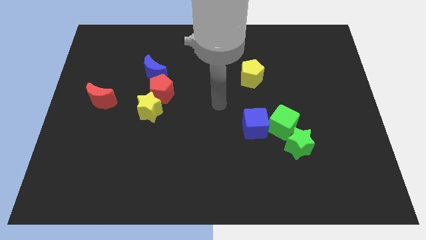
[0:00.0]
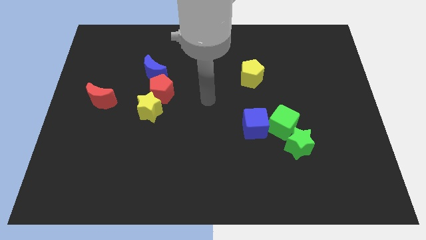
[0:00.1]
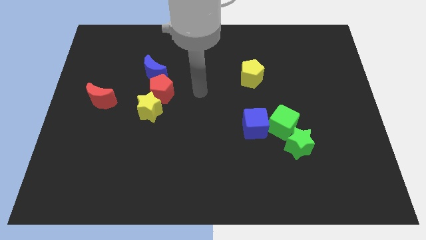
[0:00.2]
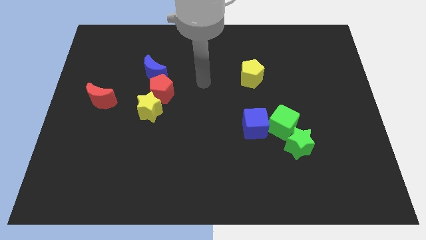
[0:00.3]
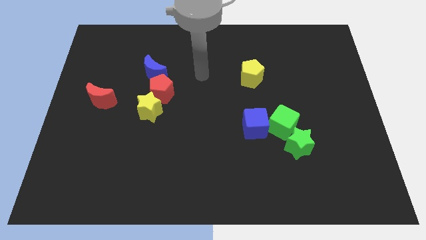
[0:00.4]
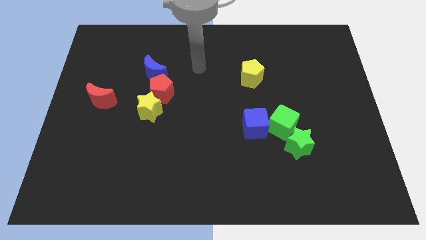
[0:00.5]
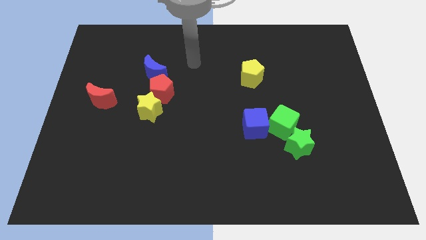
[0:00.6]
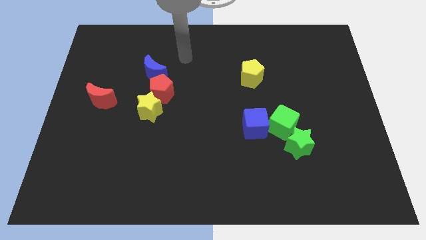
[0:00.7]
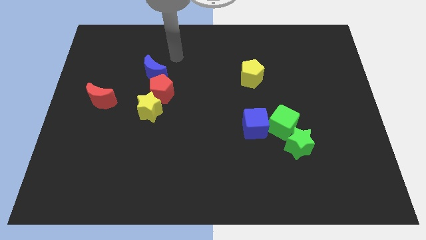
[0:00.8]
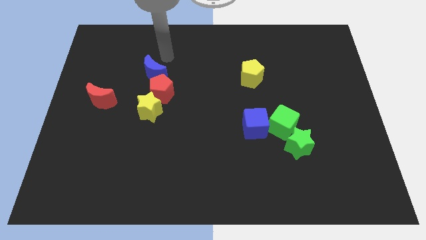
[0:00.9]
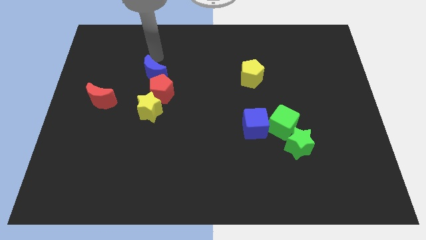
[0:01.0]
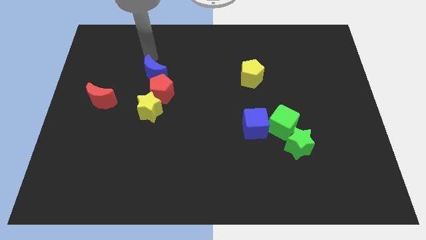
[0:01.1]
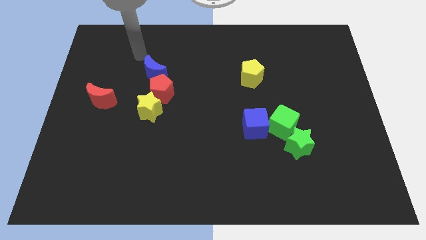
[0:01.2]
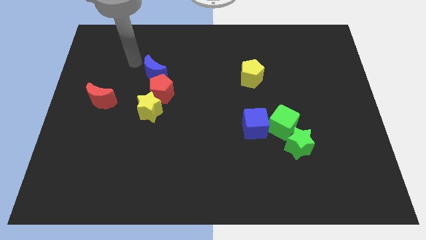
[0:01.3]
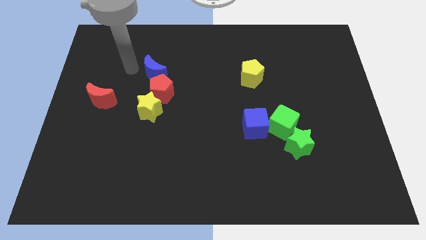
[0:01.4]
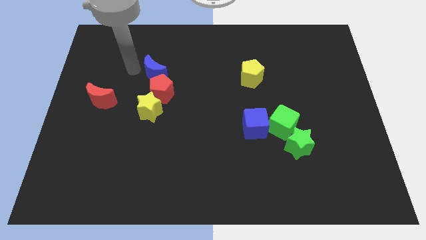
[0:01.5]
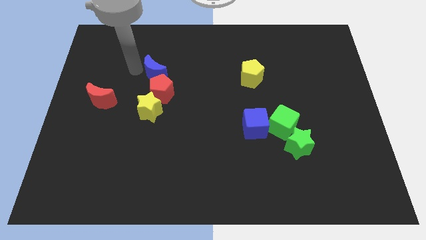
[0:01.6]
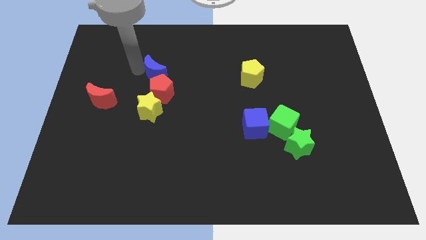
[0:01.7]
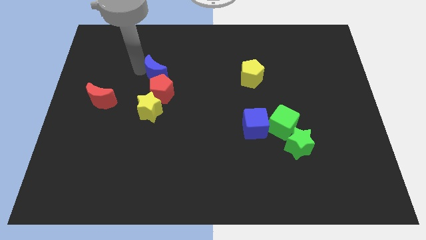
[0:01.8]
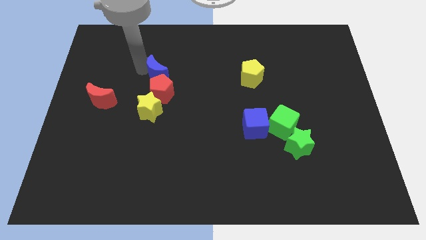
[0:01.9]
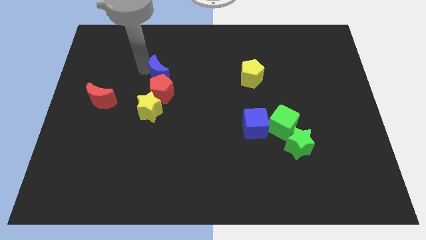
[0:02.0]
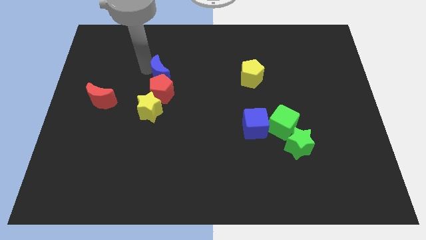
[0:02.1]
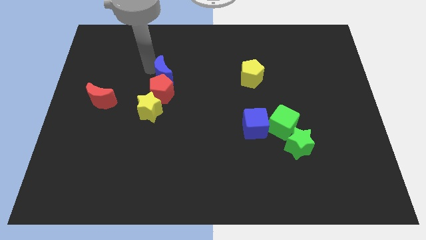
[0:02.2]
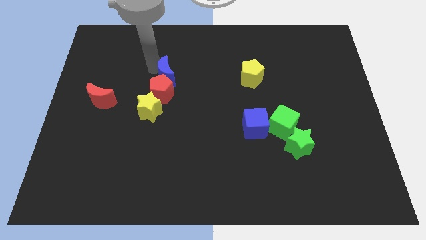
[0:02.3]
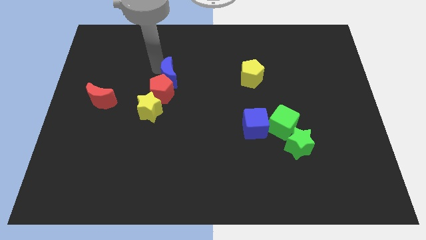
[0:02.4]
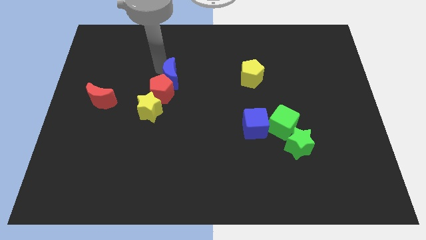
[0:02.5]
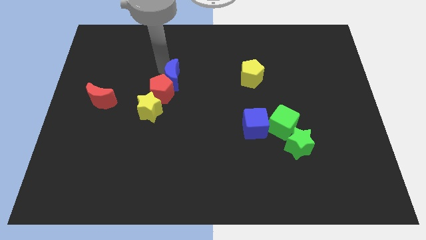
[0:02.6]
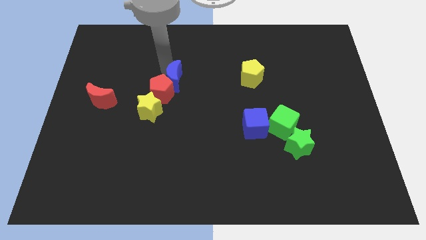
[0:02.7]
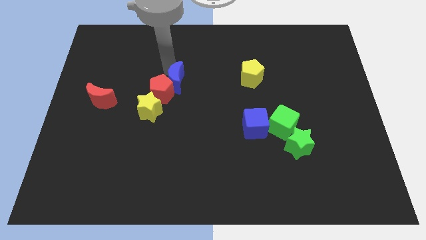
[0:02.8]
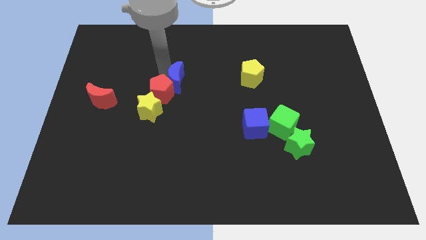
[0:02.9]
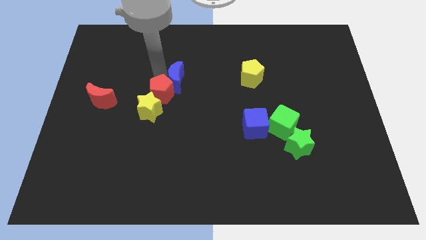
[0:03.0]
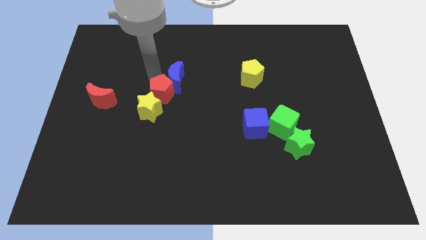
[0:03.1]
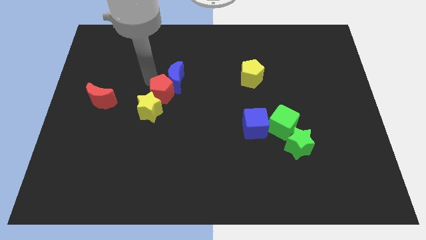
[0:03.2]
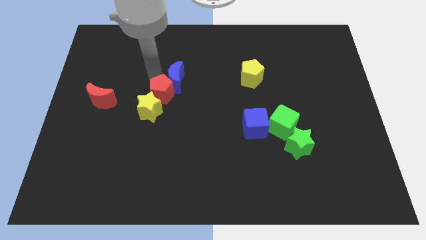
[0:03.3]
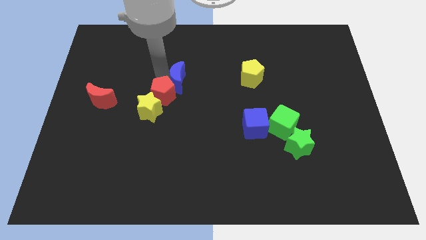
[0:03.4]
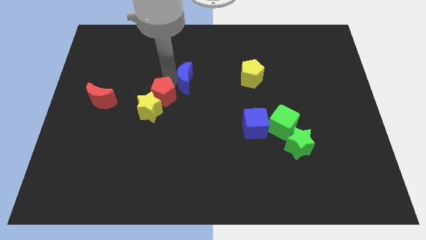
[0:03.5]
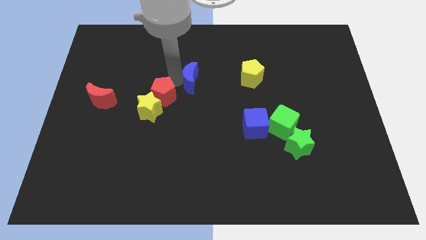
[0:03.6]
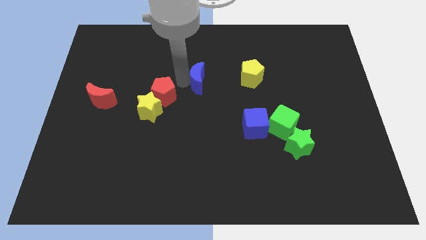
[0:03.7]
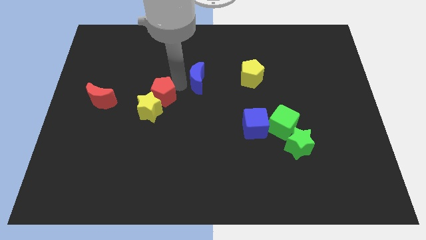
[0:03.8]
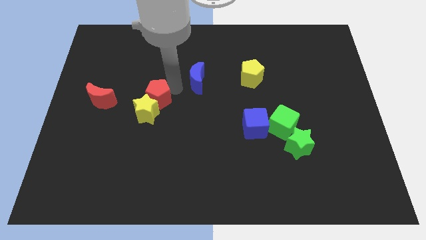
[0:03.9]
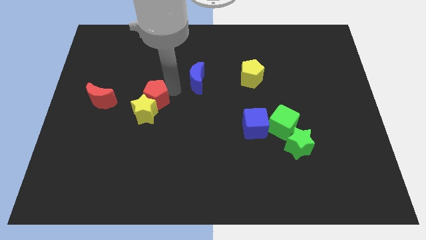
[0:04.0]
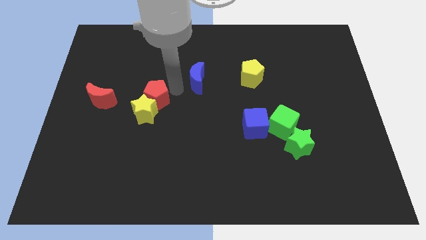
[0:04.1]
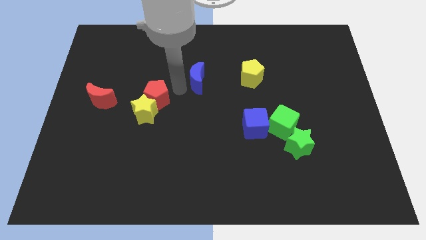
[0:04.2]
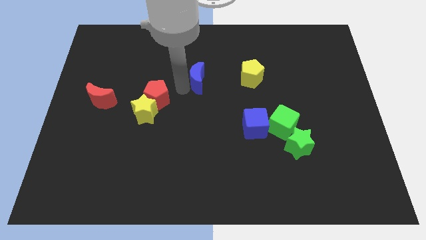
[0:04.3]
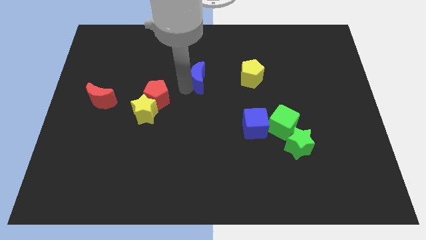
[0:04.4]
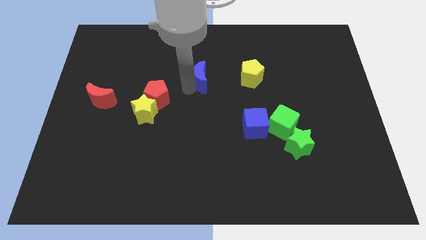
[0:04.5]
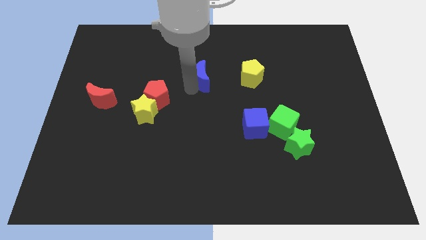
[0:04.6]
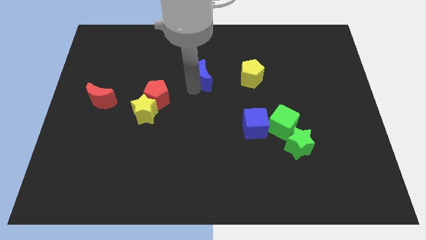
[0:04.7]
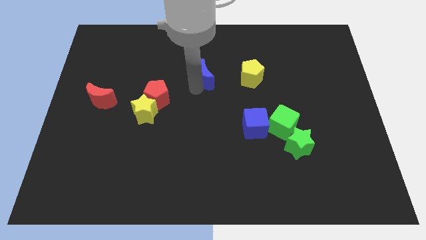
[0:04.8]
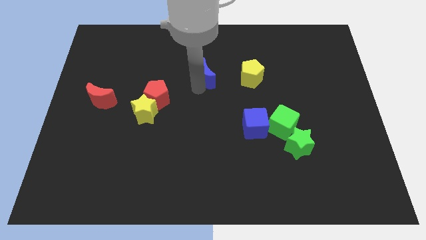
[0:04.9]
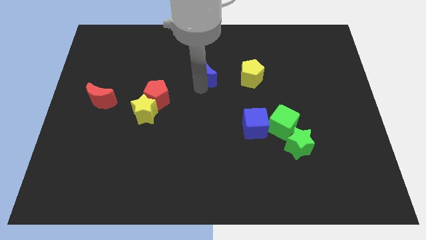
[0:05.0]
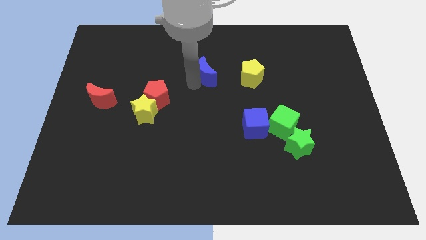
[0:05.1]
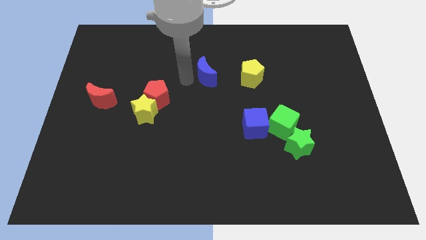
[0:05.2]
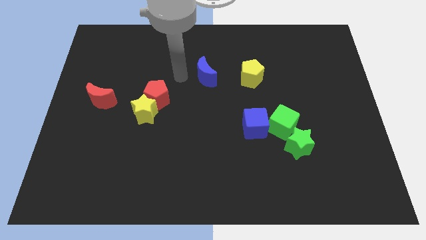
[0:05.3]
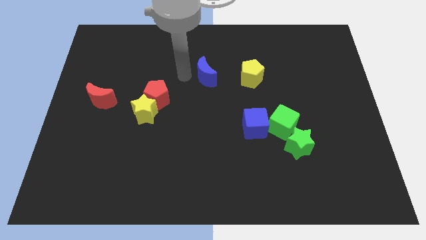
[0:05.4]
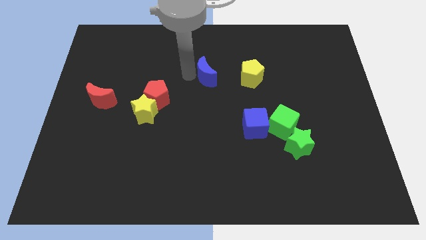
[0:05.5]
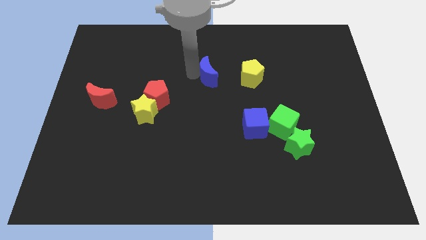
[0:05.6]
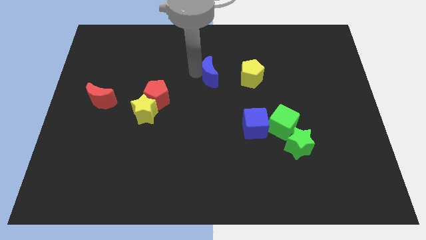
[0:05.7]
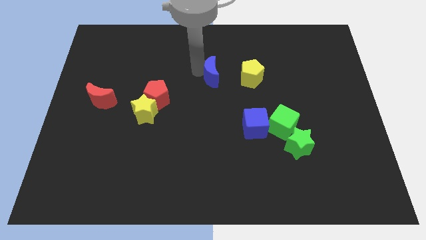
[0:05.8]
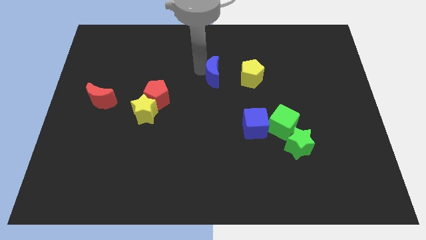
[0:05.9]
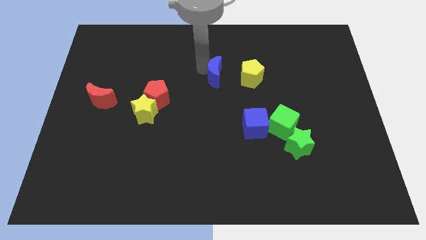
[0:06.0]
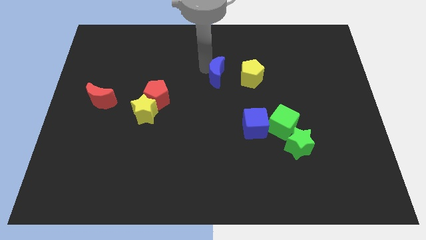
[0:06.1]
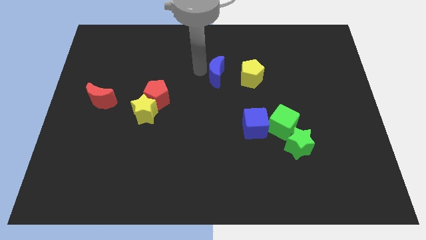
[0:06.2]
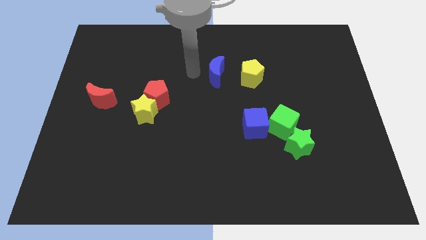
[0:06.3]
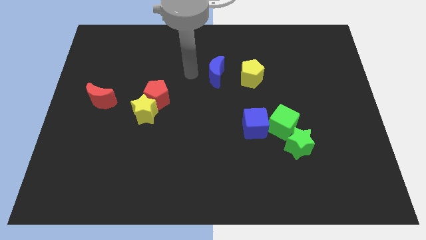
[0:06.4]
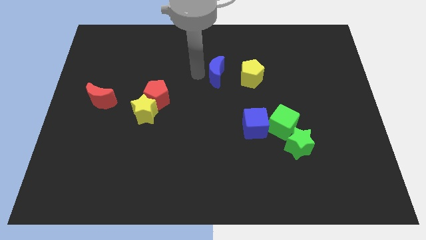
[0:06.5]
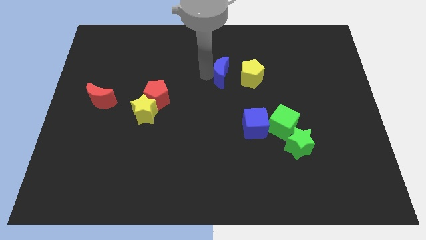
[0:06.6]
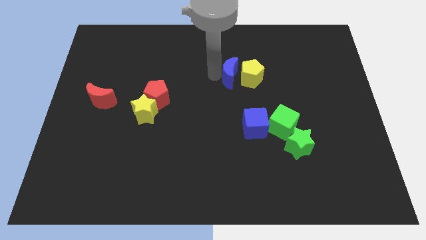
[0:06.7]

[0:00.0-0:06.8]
move the blue moon next to the yellow pentagon
